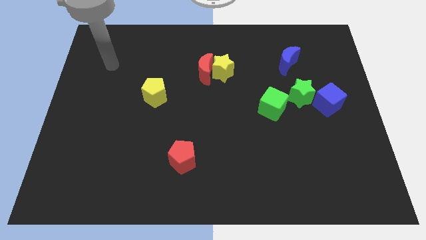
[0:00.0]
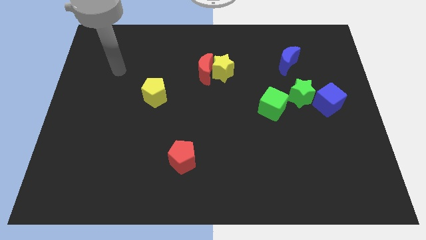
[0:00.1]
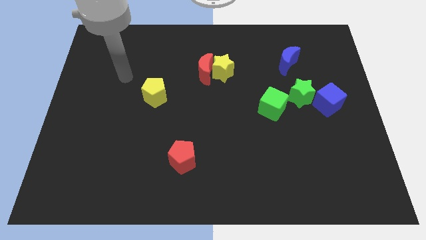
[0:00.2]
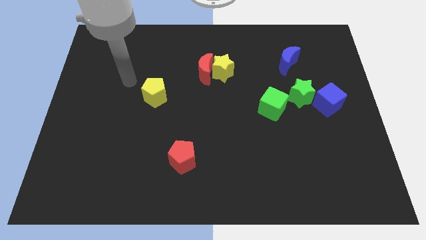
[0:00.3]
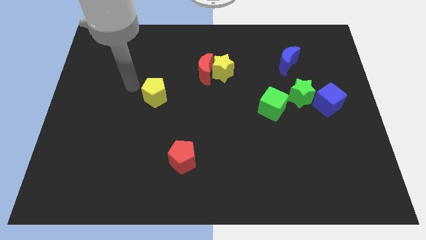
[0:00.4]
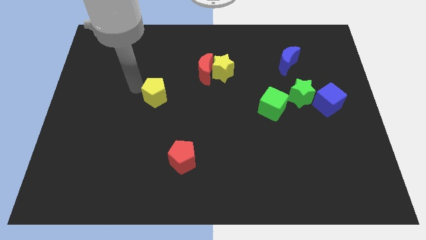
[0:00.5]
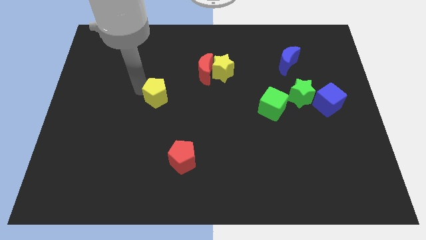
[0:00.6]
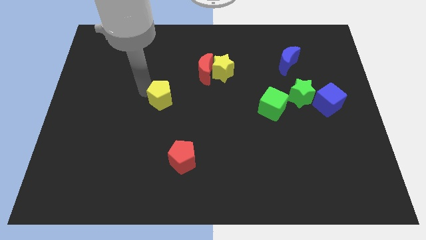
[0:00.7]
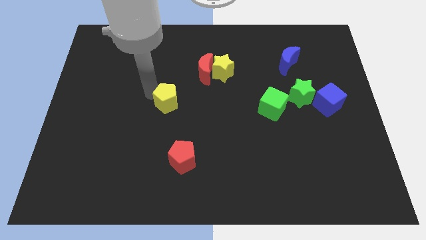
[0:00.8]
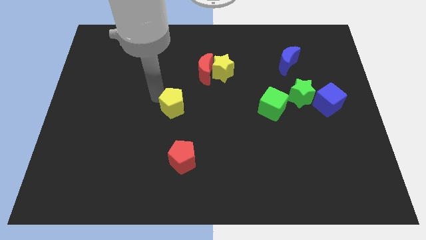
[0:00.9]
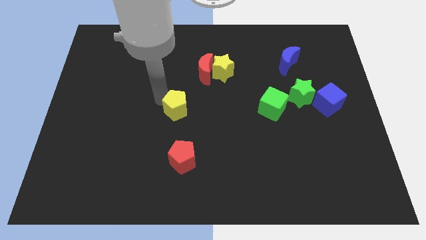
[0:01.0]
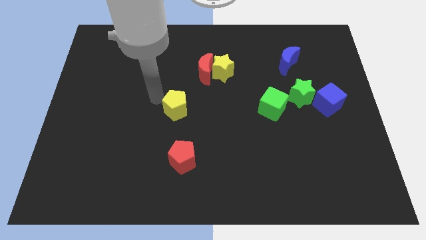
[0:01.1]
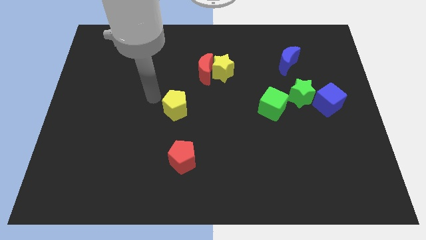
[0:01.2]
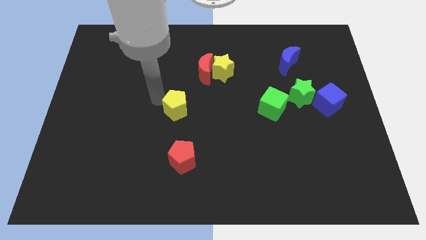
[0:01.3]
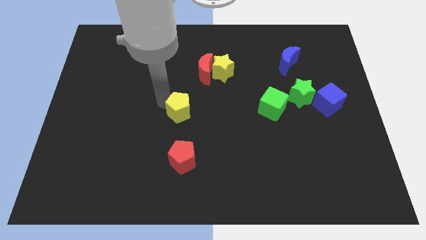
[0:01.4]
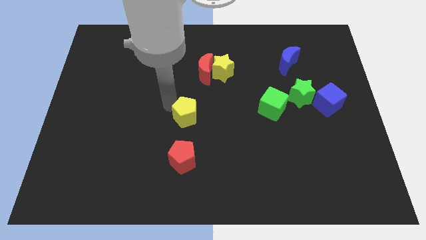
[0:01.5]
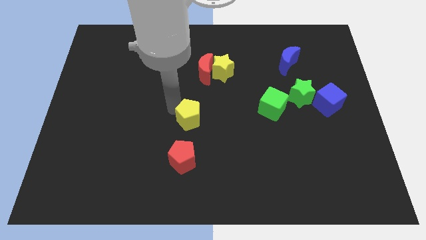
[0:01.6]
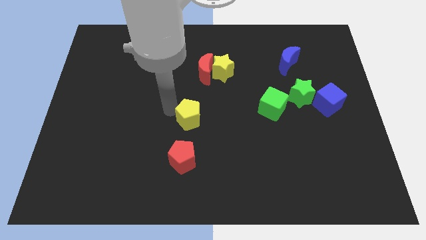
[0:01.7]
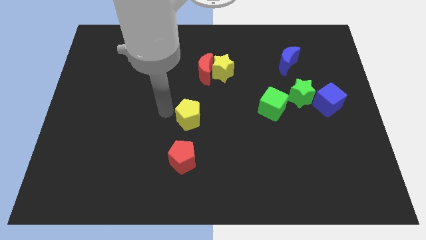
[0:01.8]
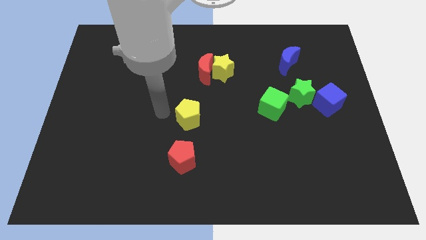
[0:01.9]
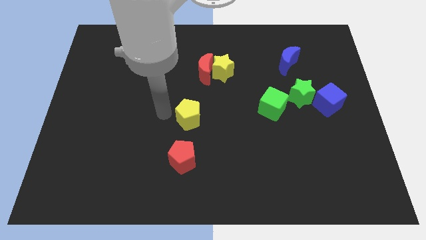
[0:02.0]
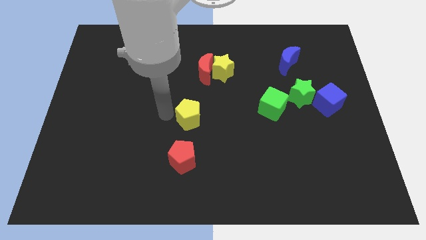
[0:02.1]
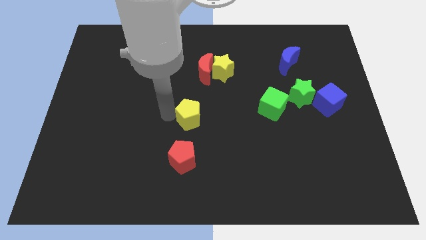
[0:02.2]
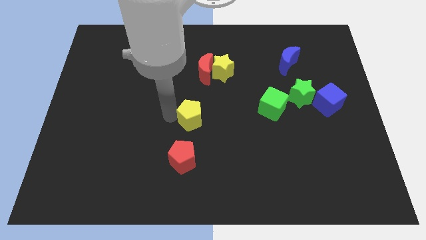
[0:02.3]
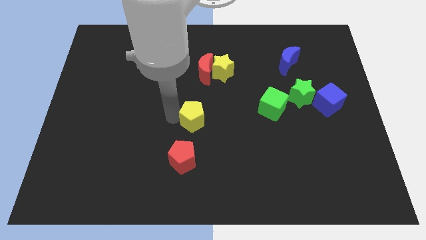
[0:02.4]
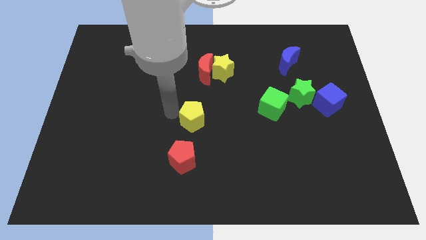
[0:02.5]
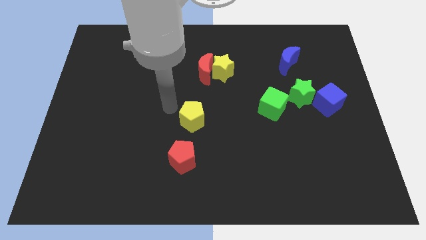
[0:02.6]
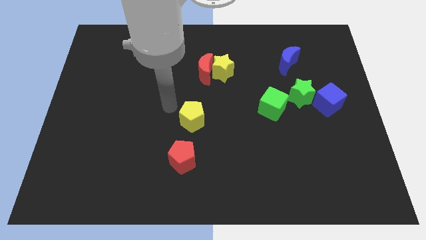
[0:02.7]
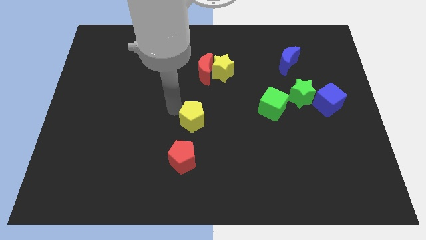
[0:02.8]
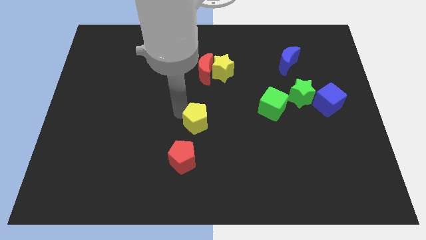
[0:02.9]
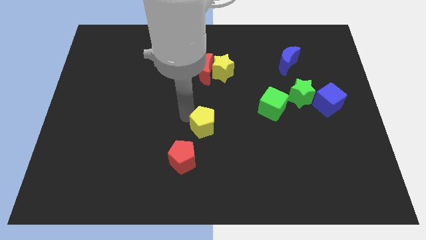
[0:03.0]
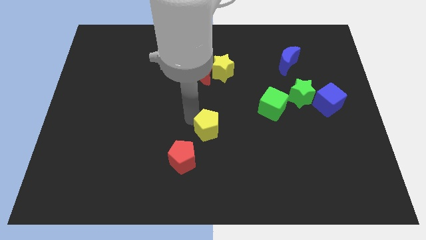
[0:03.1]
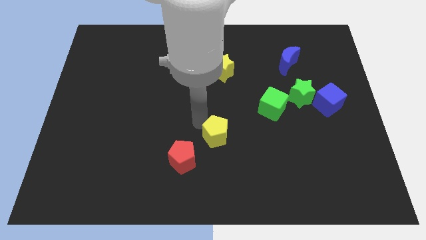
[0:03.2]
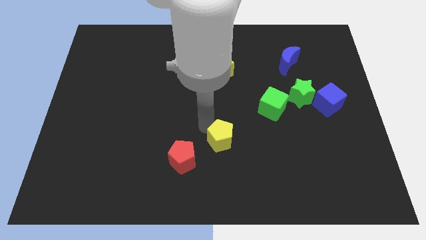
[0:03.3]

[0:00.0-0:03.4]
push the yellow pentagon down and then to the right

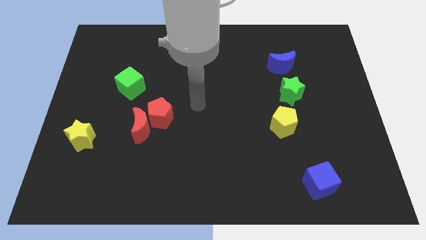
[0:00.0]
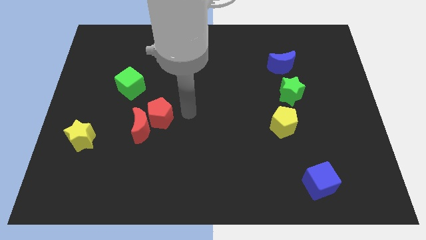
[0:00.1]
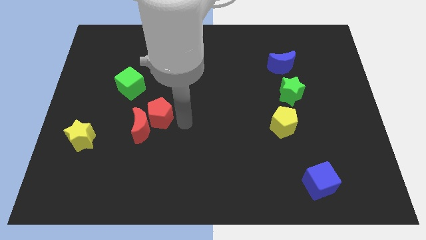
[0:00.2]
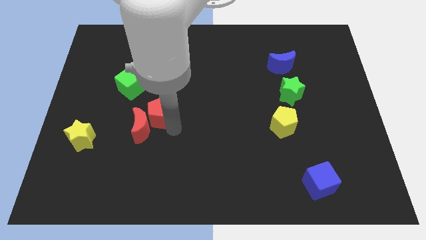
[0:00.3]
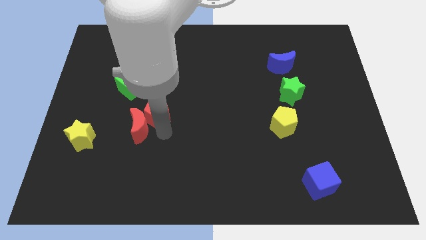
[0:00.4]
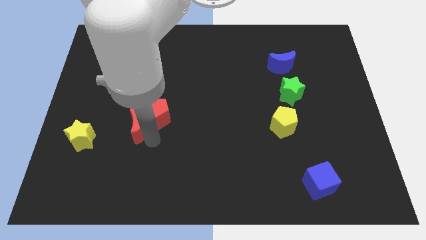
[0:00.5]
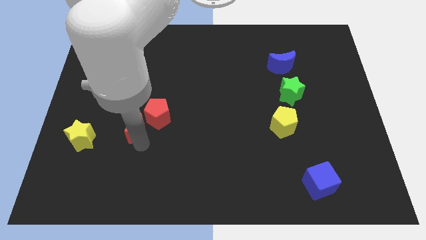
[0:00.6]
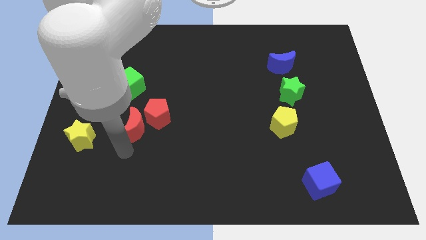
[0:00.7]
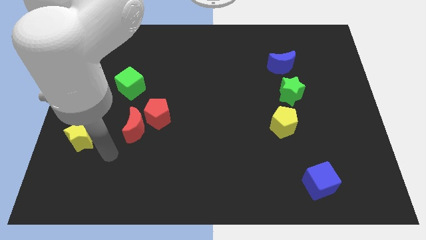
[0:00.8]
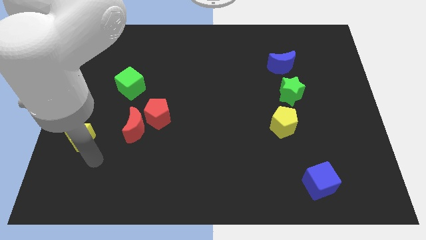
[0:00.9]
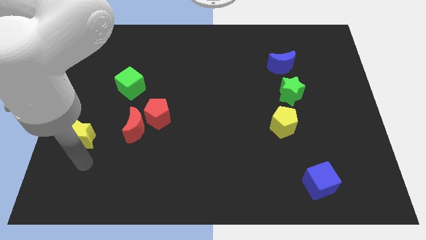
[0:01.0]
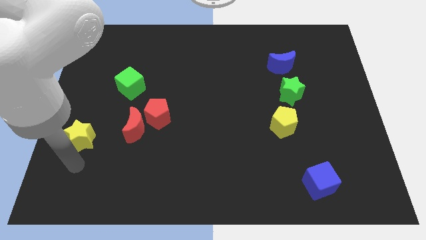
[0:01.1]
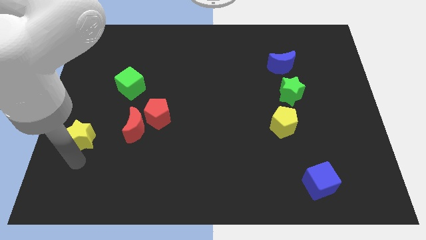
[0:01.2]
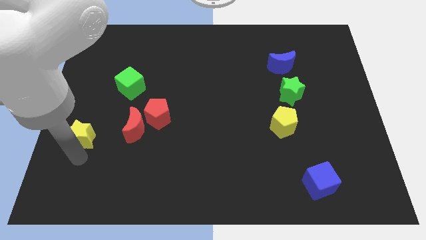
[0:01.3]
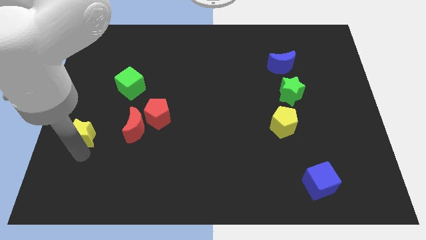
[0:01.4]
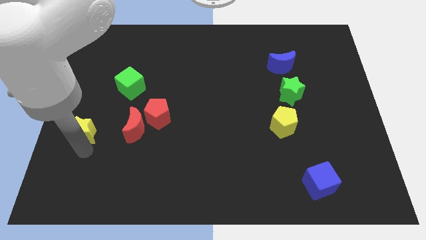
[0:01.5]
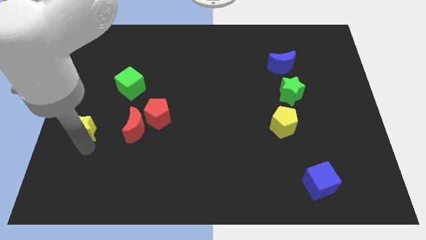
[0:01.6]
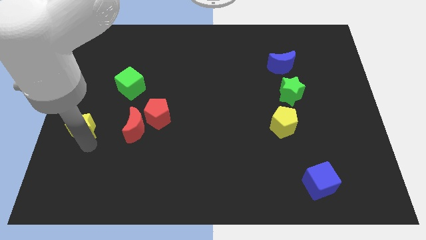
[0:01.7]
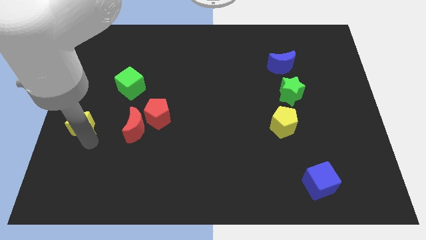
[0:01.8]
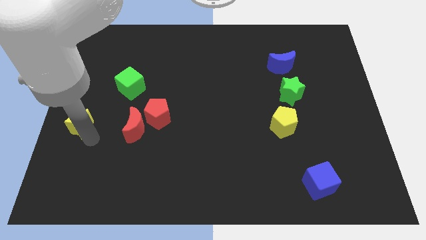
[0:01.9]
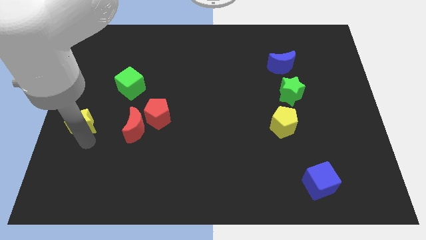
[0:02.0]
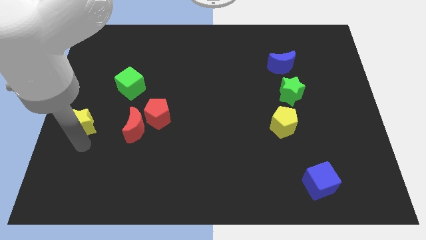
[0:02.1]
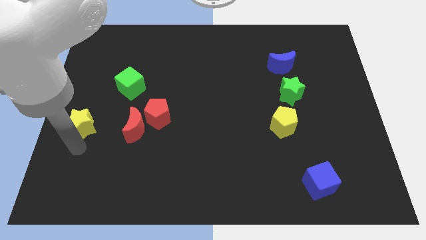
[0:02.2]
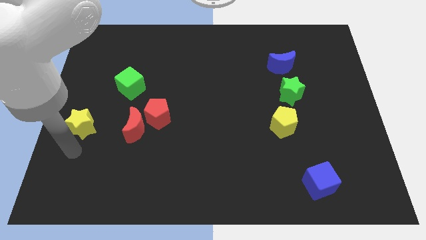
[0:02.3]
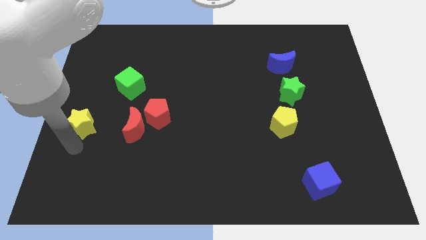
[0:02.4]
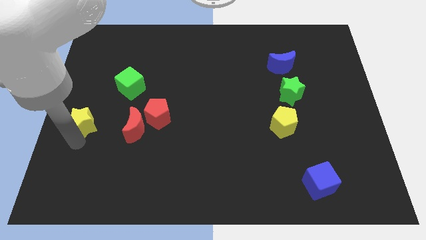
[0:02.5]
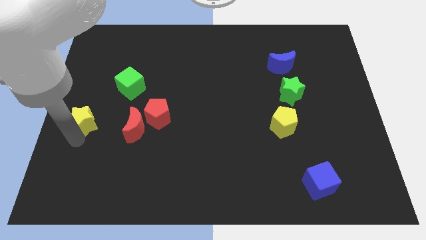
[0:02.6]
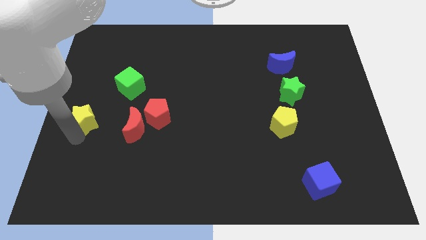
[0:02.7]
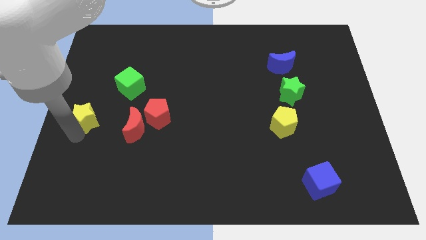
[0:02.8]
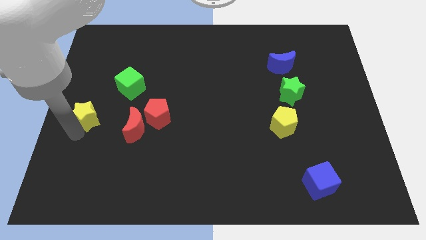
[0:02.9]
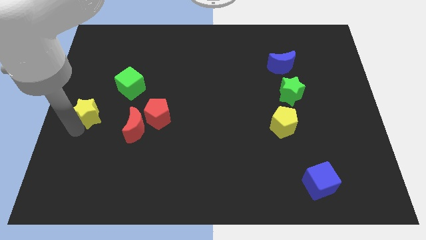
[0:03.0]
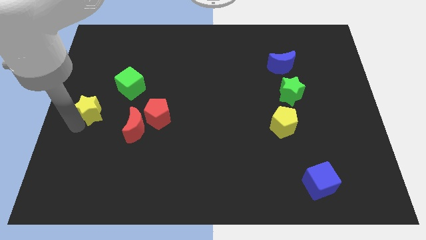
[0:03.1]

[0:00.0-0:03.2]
slide the yellow star slightly upwards

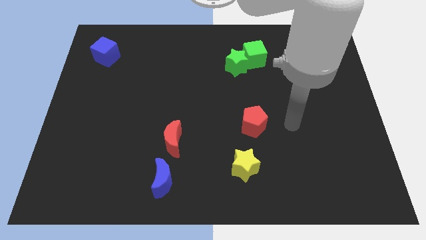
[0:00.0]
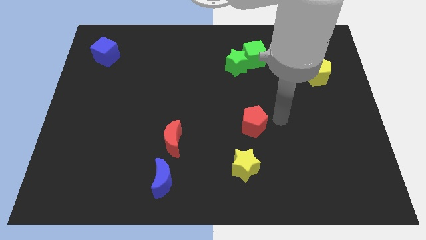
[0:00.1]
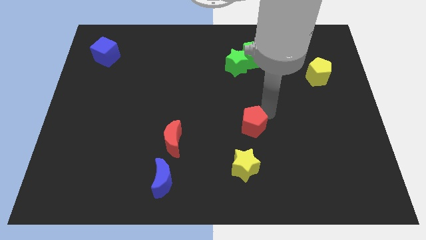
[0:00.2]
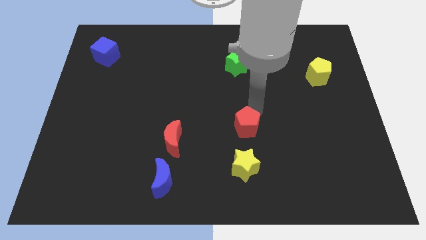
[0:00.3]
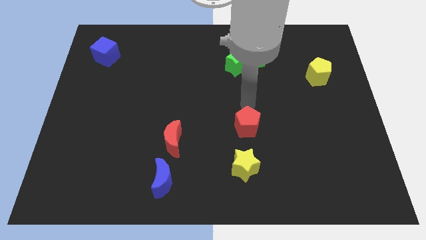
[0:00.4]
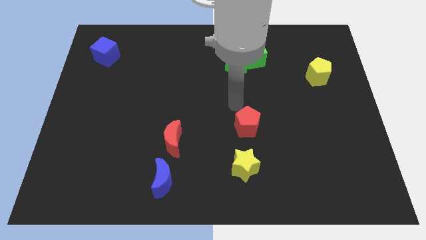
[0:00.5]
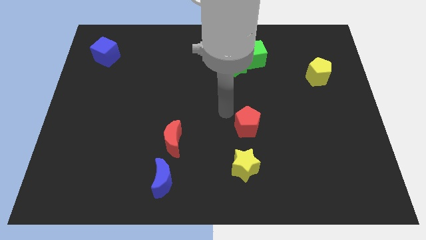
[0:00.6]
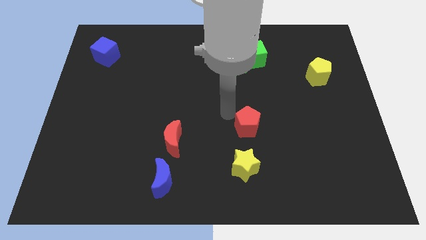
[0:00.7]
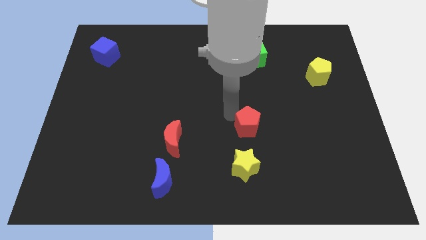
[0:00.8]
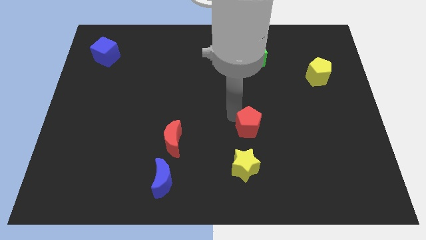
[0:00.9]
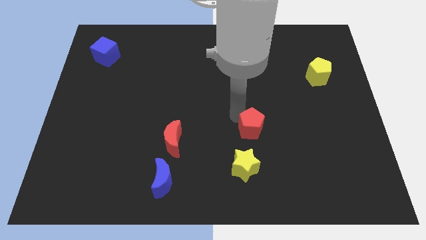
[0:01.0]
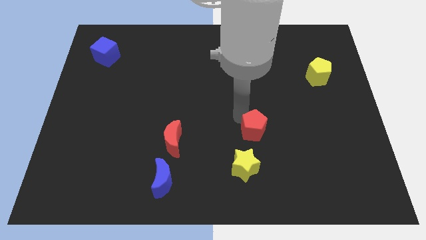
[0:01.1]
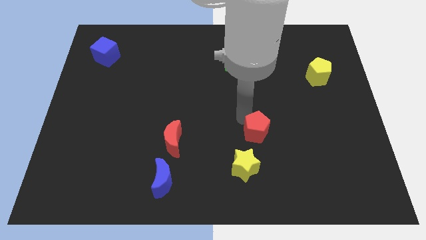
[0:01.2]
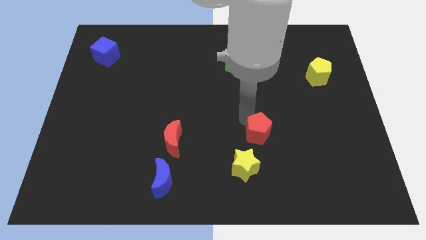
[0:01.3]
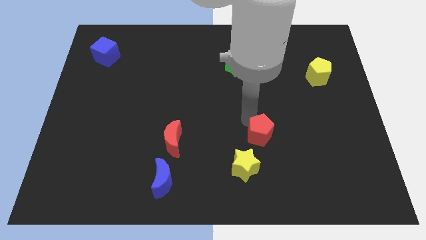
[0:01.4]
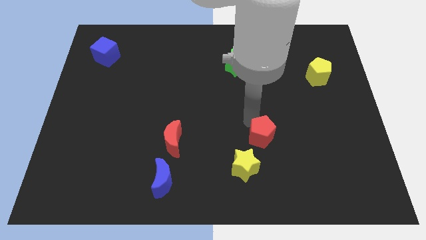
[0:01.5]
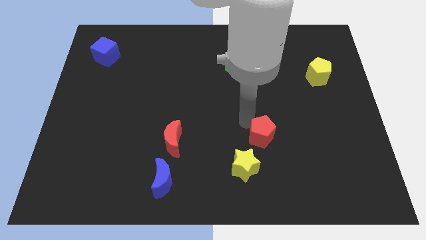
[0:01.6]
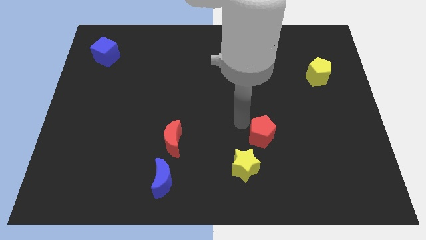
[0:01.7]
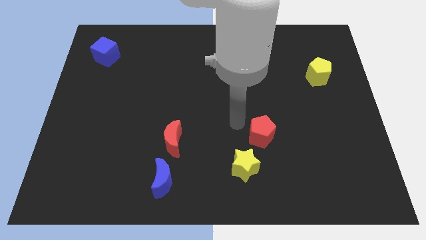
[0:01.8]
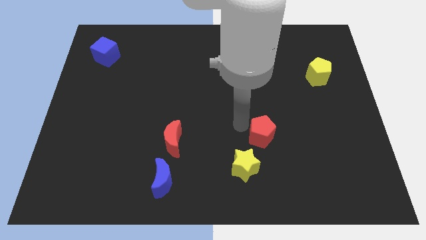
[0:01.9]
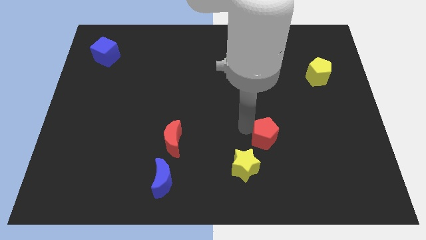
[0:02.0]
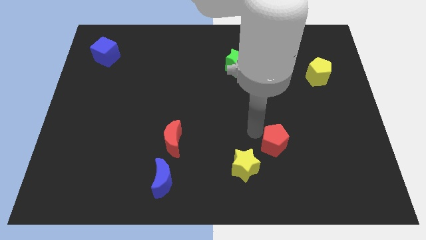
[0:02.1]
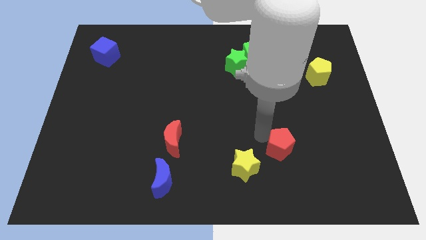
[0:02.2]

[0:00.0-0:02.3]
slightly slide the red pentagon down and right
